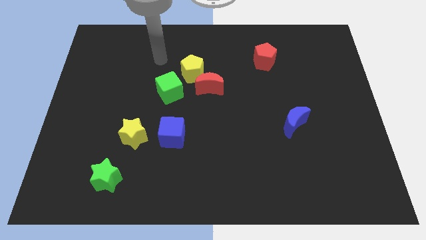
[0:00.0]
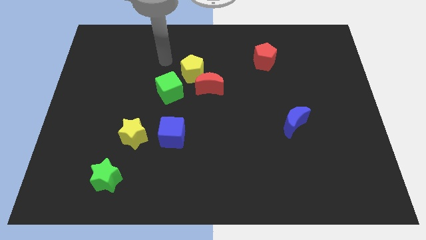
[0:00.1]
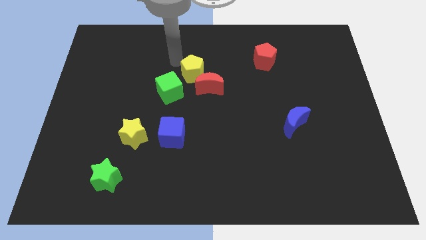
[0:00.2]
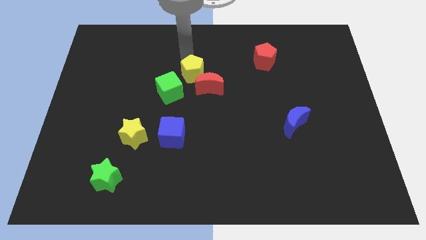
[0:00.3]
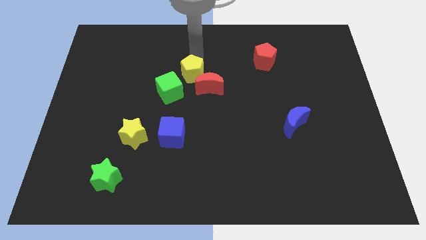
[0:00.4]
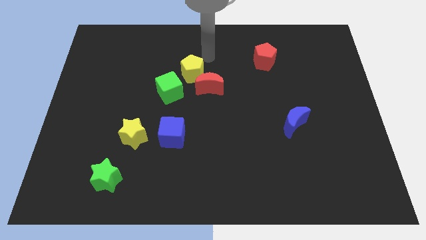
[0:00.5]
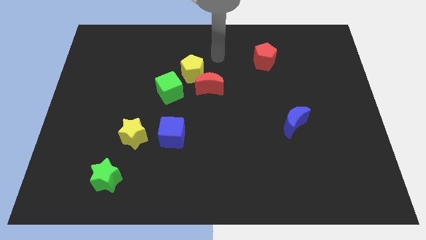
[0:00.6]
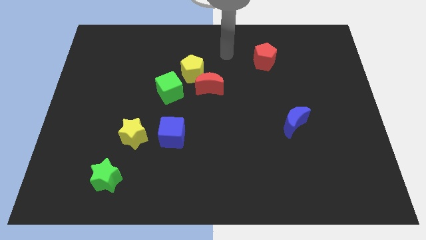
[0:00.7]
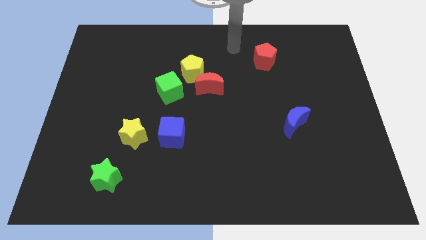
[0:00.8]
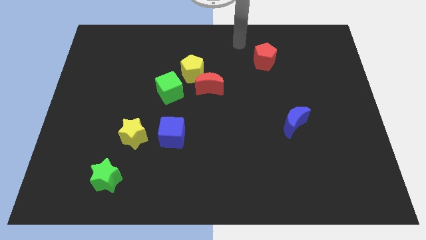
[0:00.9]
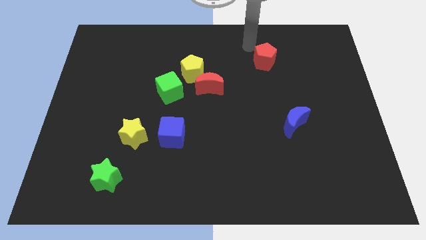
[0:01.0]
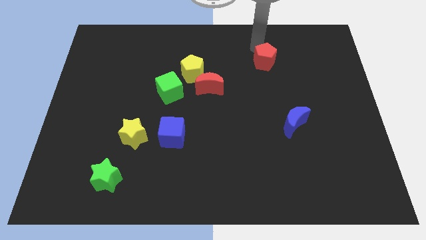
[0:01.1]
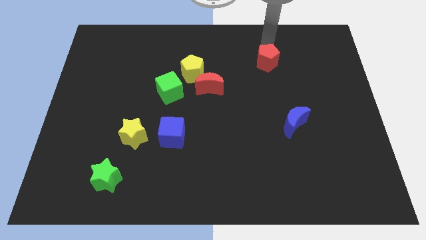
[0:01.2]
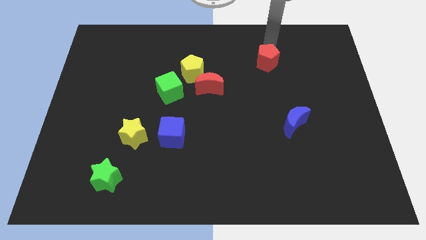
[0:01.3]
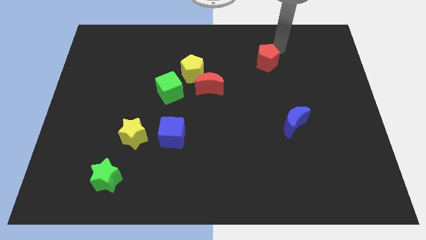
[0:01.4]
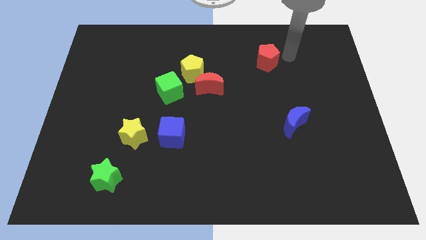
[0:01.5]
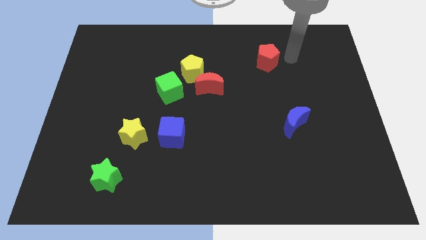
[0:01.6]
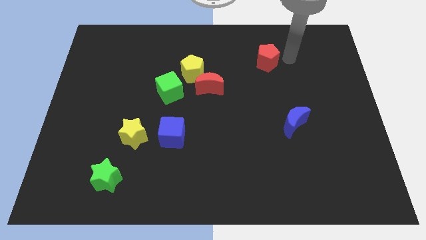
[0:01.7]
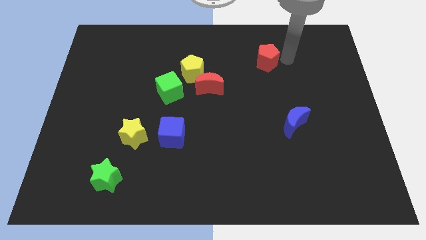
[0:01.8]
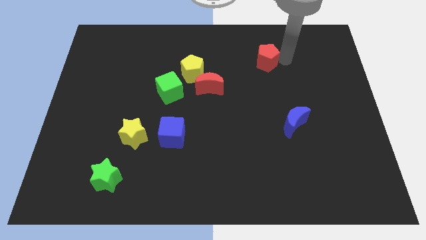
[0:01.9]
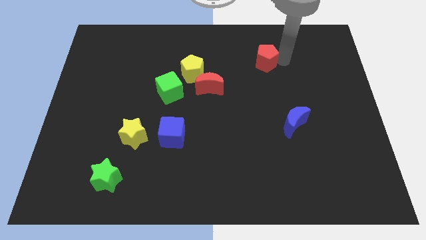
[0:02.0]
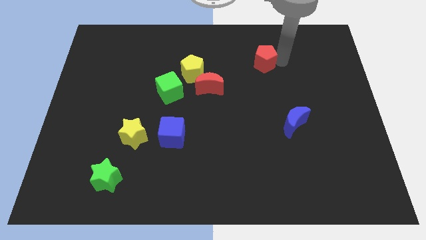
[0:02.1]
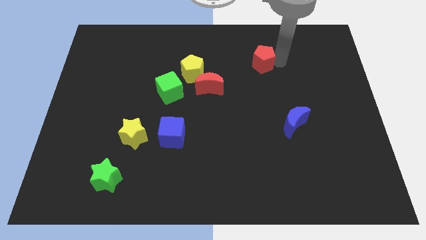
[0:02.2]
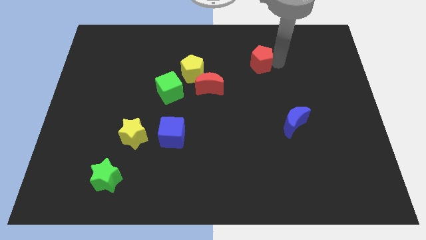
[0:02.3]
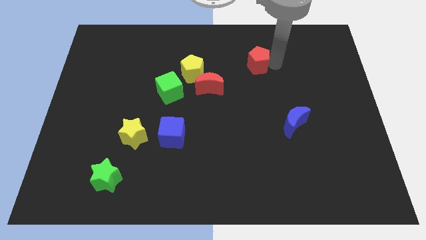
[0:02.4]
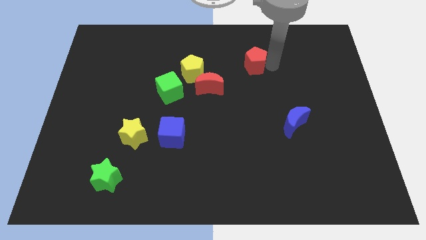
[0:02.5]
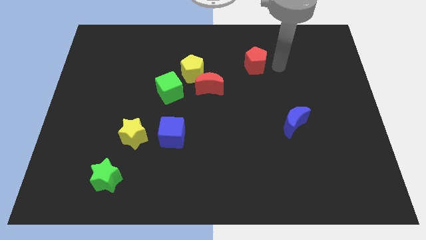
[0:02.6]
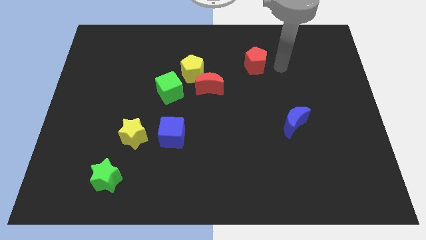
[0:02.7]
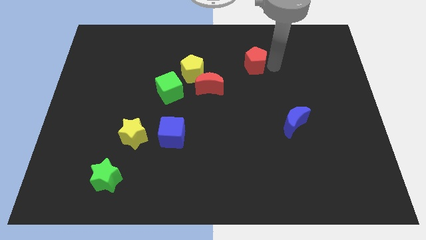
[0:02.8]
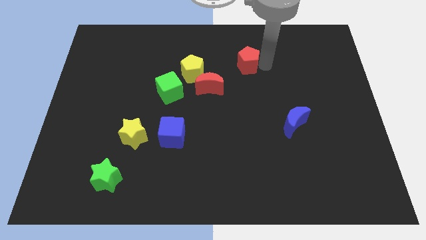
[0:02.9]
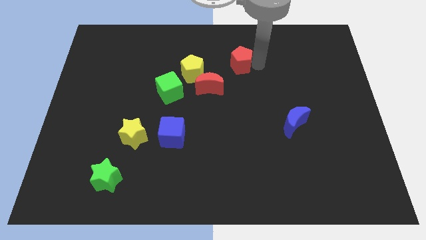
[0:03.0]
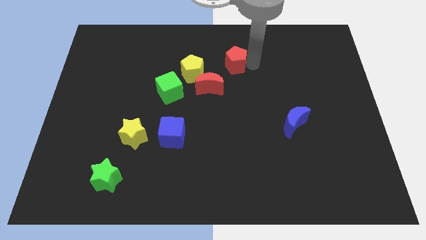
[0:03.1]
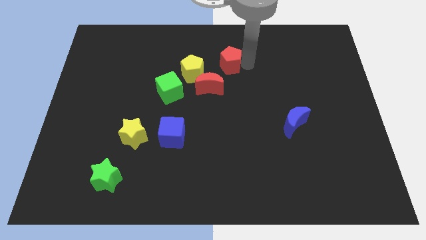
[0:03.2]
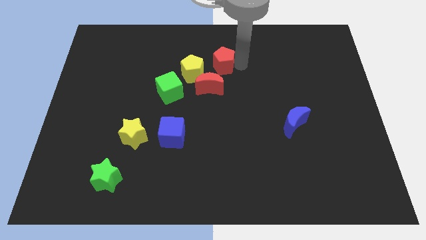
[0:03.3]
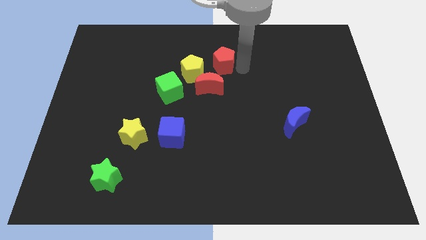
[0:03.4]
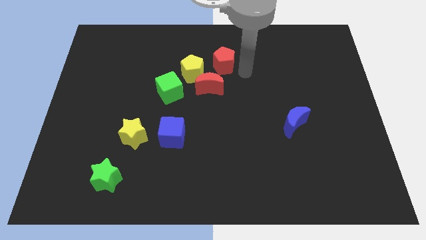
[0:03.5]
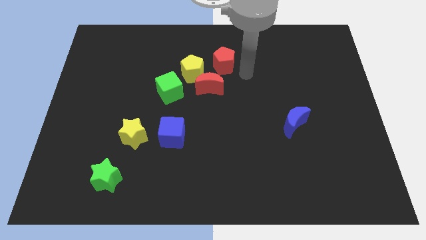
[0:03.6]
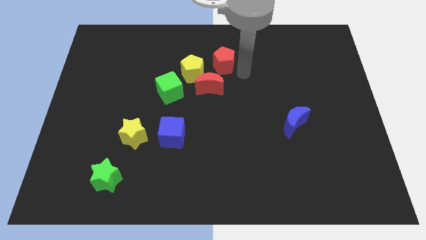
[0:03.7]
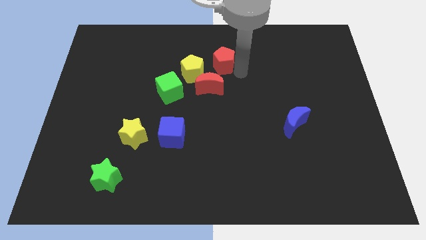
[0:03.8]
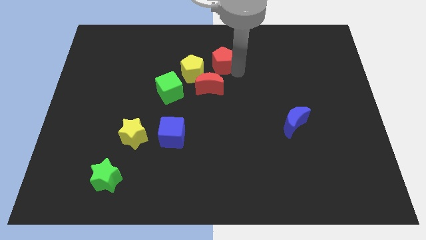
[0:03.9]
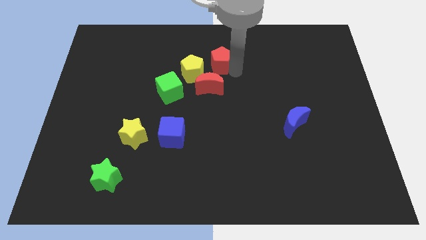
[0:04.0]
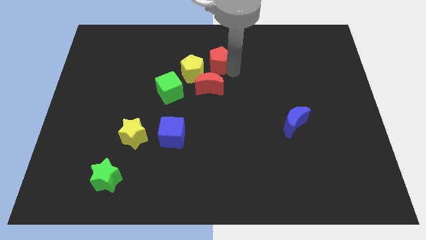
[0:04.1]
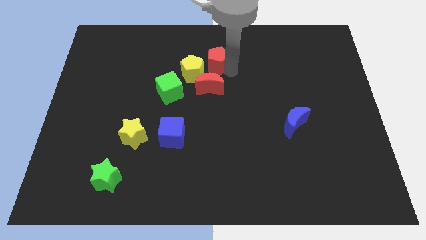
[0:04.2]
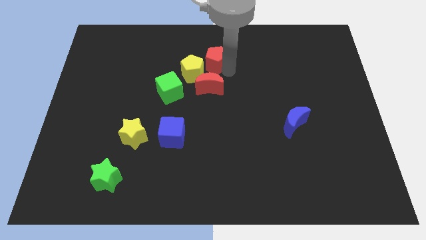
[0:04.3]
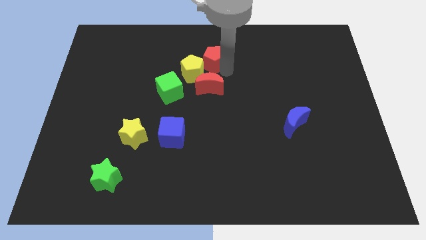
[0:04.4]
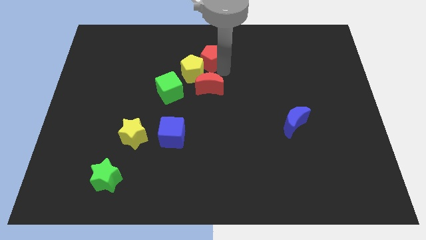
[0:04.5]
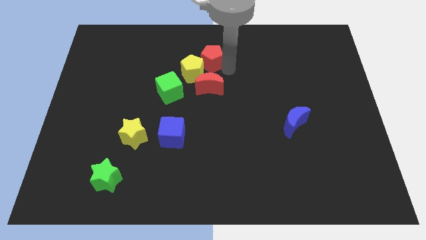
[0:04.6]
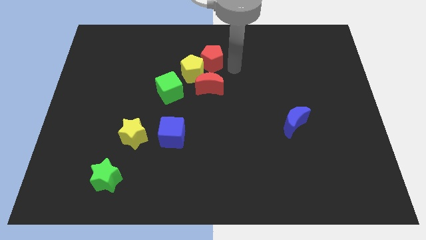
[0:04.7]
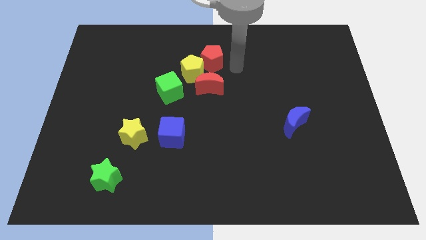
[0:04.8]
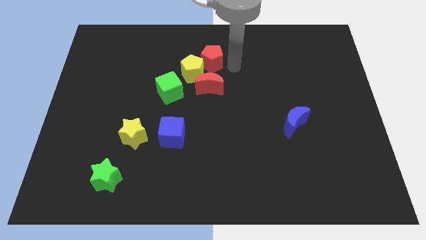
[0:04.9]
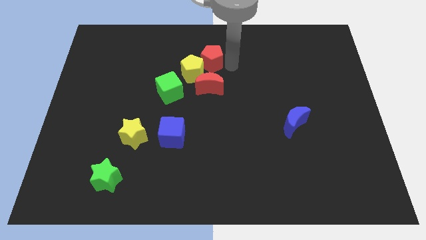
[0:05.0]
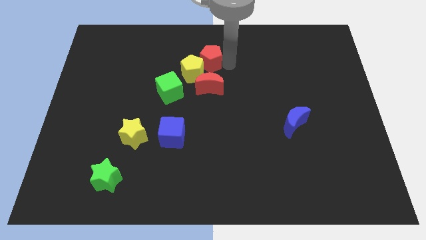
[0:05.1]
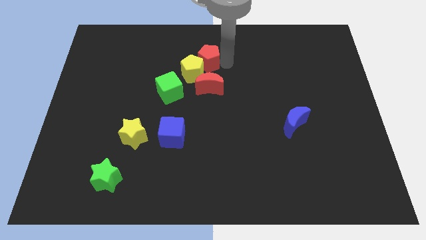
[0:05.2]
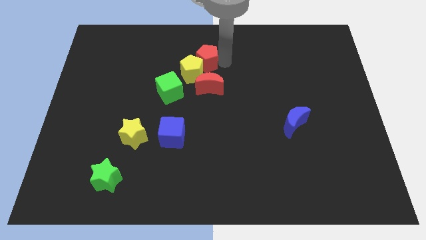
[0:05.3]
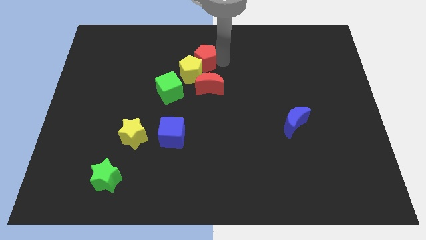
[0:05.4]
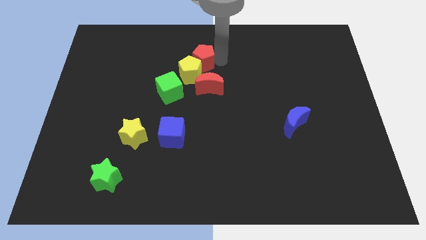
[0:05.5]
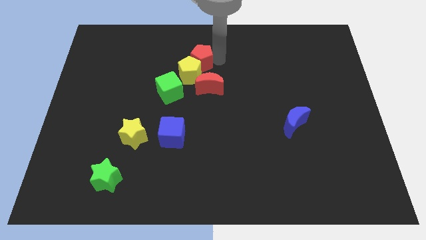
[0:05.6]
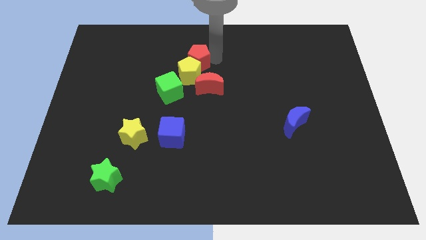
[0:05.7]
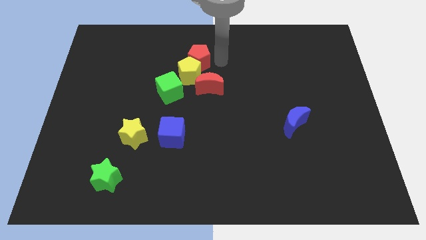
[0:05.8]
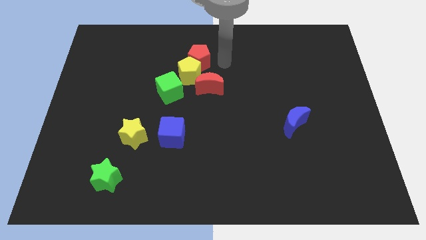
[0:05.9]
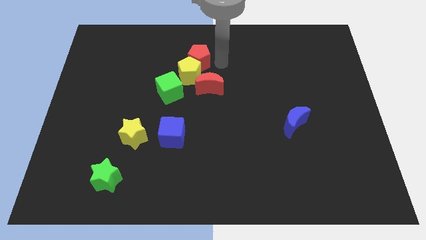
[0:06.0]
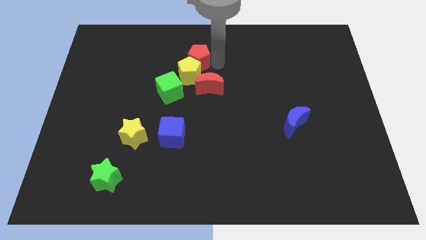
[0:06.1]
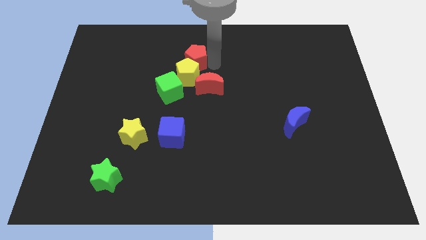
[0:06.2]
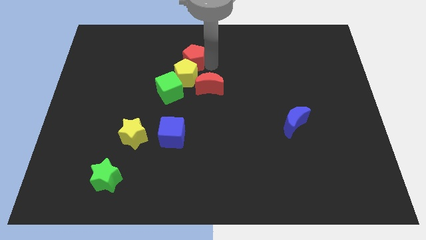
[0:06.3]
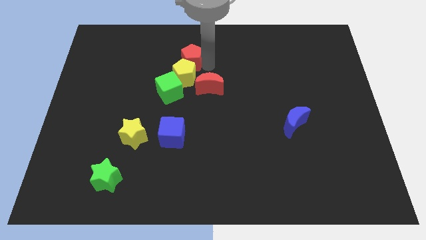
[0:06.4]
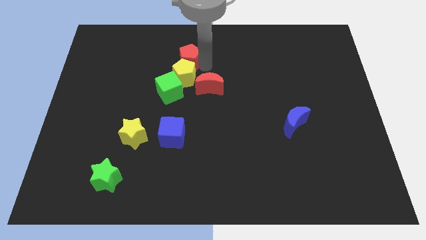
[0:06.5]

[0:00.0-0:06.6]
push the red pentagon diagonally up and to the left of the yellow pentagon

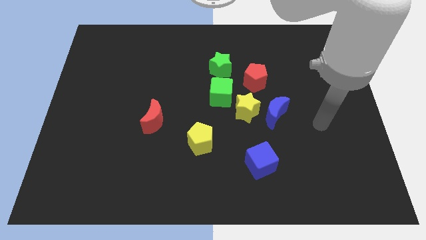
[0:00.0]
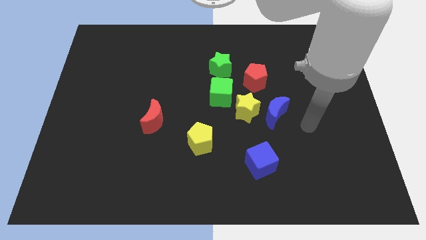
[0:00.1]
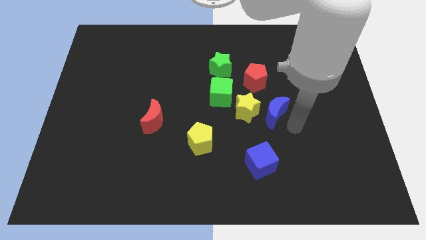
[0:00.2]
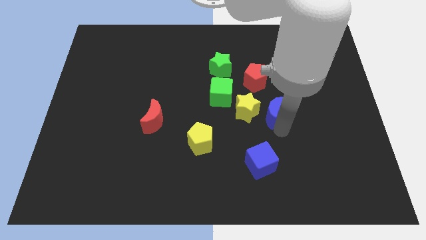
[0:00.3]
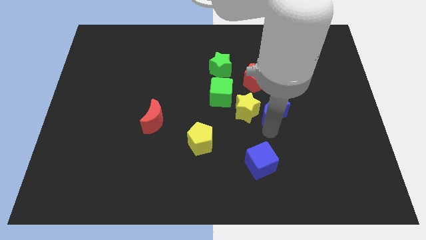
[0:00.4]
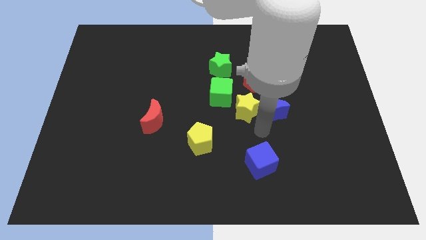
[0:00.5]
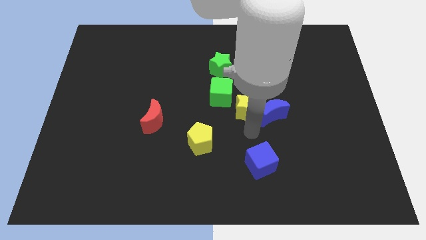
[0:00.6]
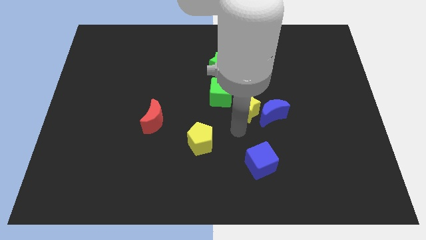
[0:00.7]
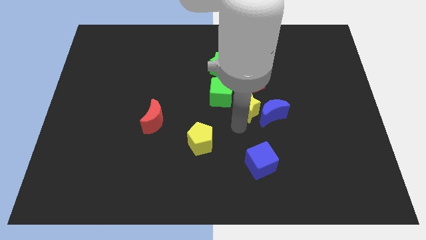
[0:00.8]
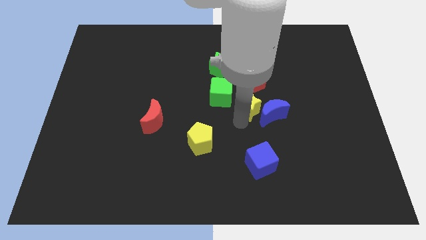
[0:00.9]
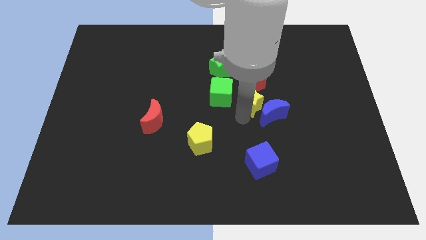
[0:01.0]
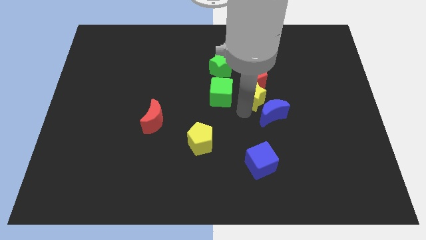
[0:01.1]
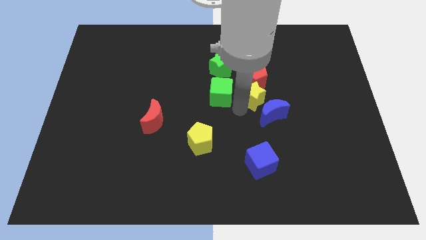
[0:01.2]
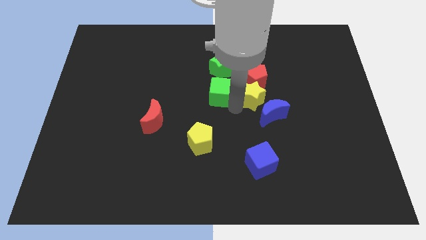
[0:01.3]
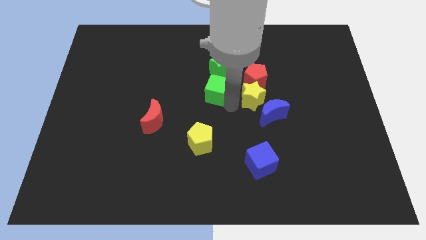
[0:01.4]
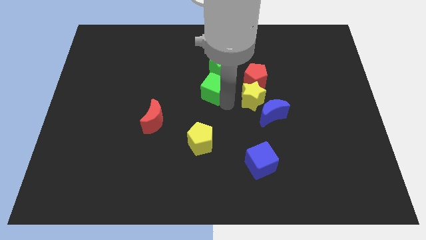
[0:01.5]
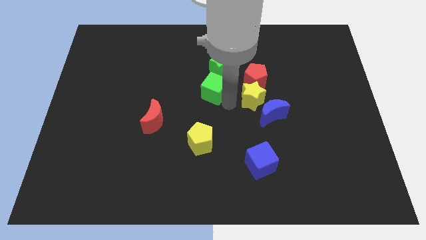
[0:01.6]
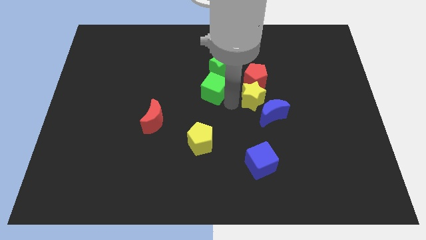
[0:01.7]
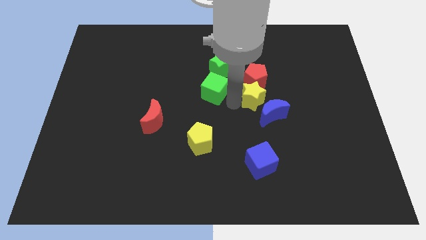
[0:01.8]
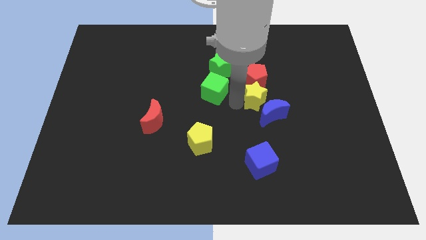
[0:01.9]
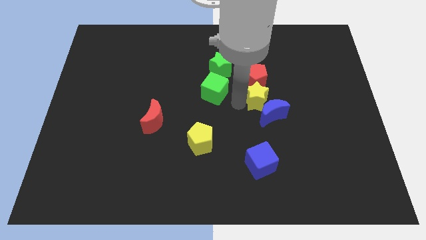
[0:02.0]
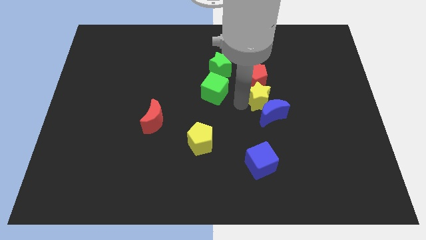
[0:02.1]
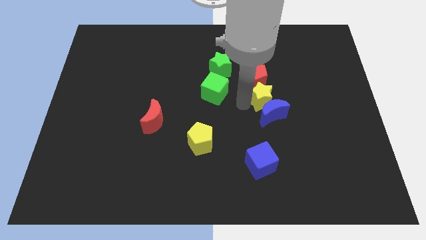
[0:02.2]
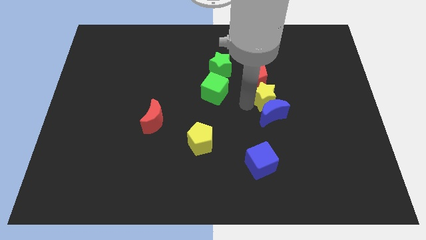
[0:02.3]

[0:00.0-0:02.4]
slide the yellow star to the top right side of the blue moon
